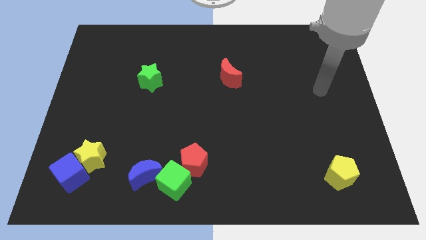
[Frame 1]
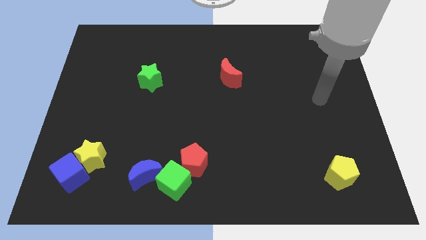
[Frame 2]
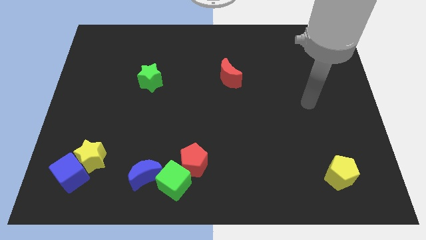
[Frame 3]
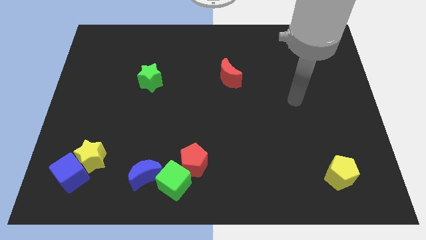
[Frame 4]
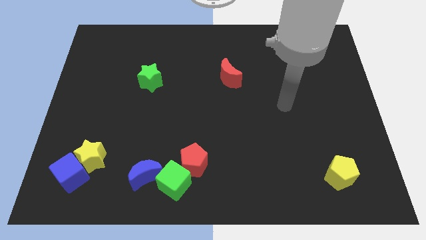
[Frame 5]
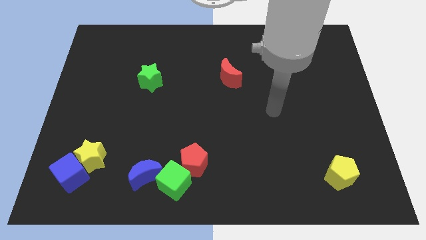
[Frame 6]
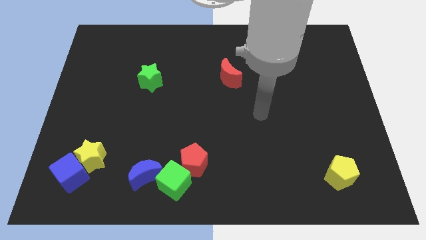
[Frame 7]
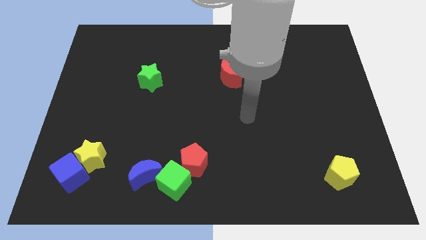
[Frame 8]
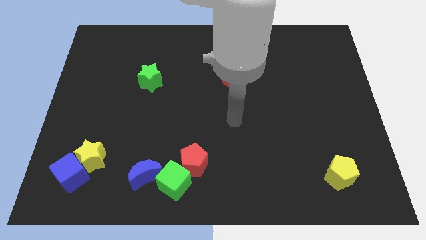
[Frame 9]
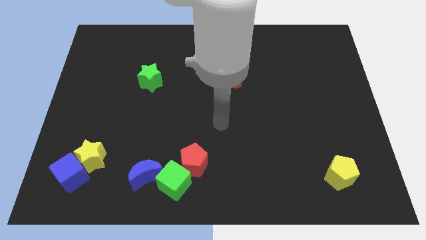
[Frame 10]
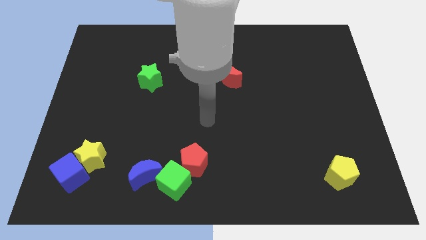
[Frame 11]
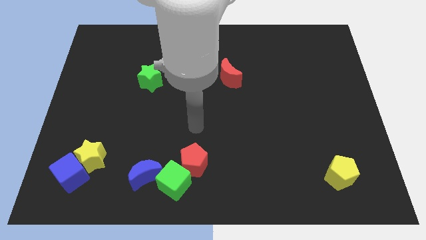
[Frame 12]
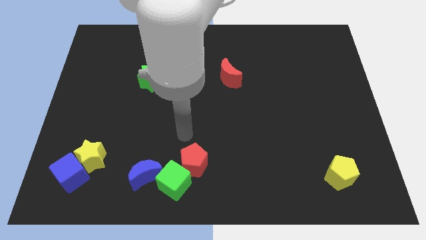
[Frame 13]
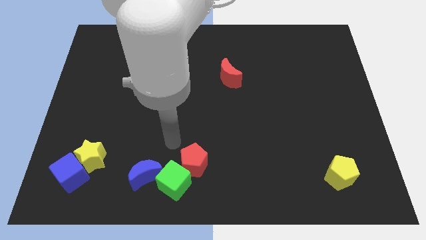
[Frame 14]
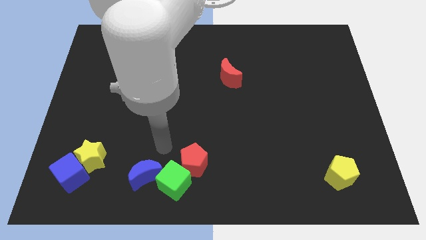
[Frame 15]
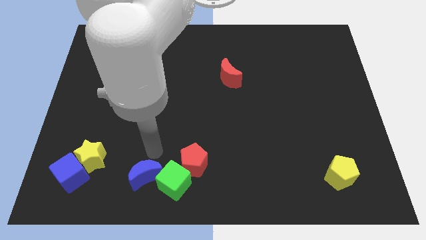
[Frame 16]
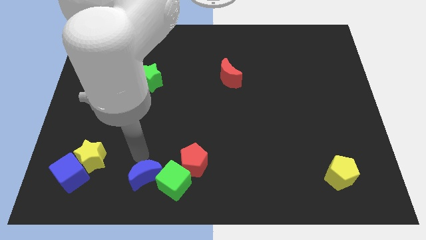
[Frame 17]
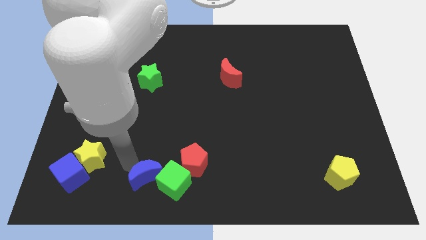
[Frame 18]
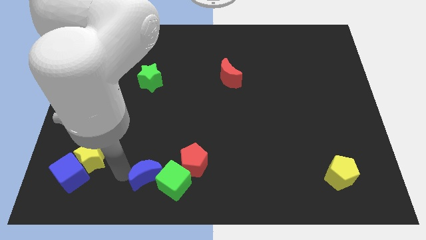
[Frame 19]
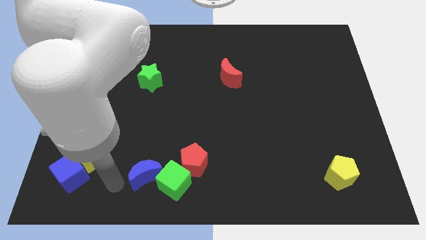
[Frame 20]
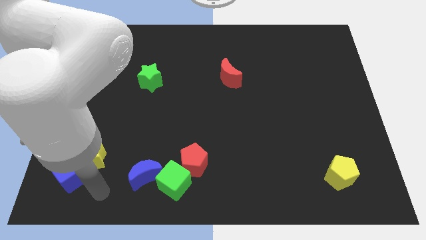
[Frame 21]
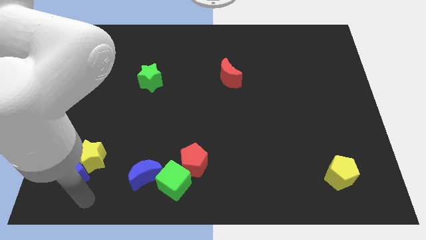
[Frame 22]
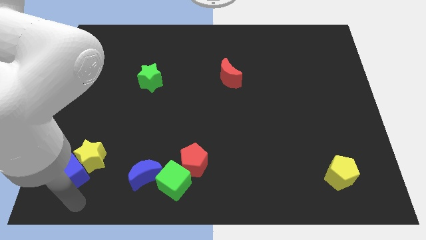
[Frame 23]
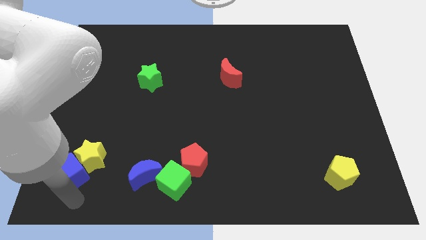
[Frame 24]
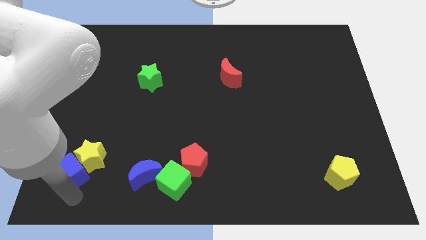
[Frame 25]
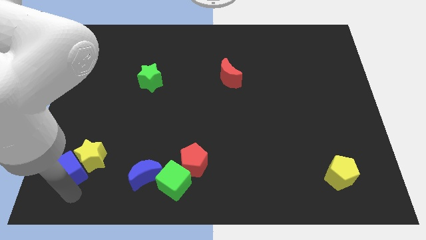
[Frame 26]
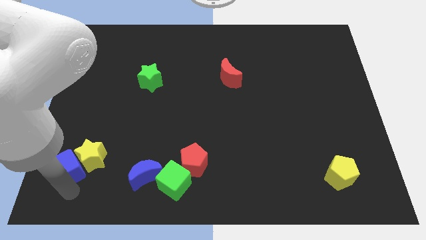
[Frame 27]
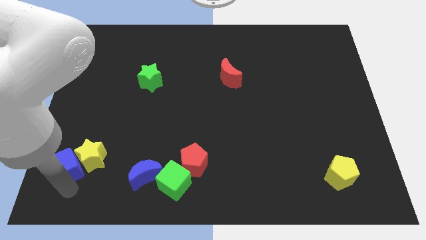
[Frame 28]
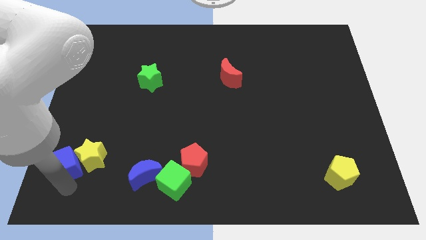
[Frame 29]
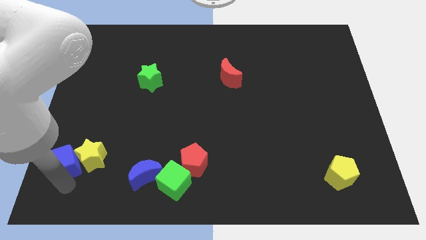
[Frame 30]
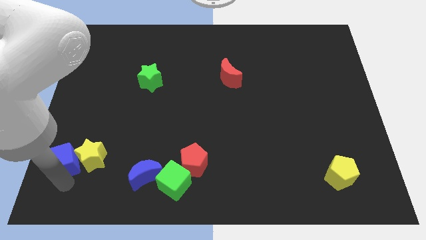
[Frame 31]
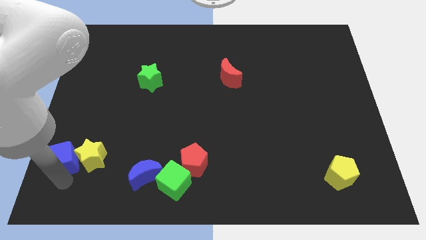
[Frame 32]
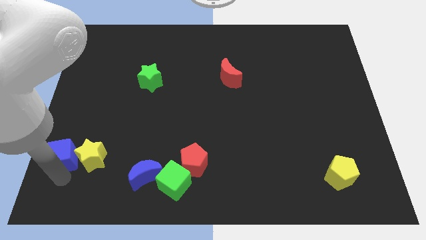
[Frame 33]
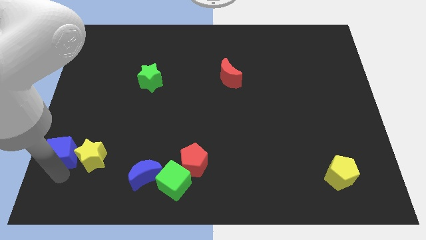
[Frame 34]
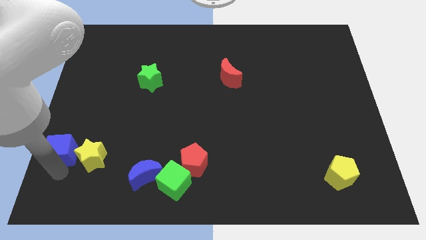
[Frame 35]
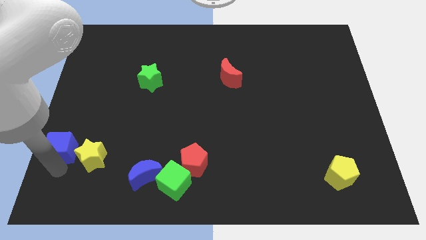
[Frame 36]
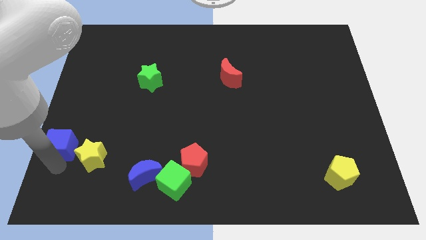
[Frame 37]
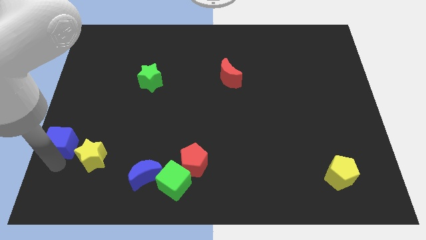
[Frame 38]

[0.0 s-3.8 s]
slide the blue cube somewhat up

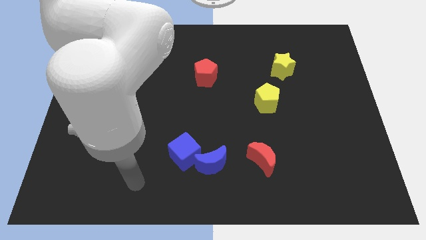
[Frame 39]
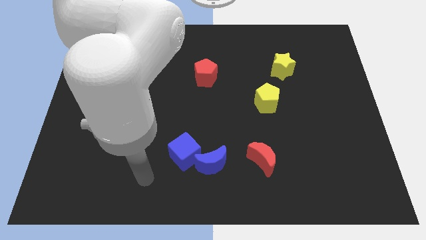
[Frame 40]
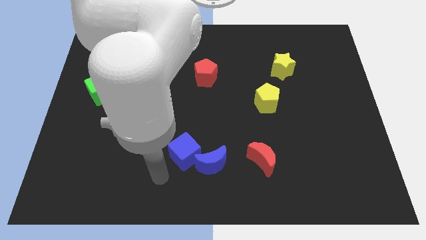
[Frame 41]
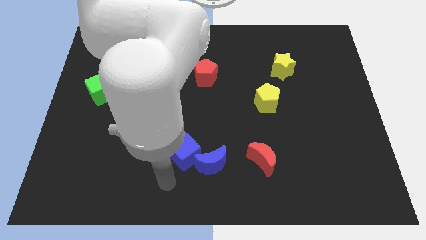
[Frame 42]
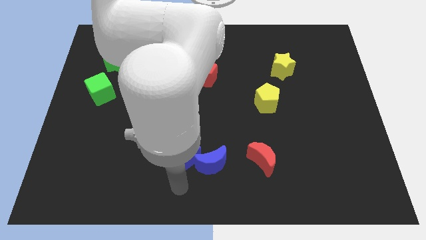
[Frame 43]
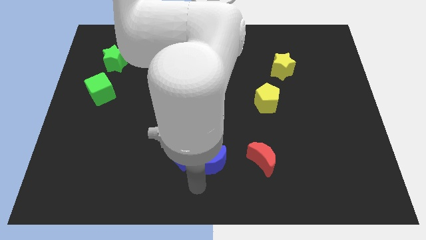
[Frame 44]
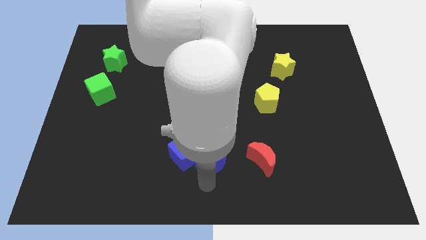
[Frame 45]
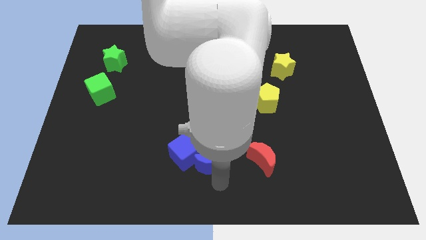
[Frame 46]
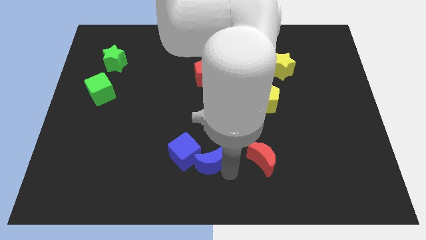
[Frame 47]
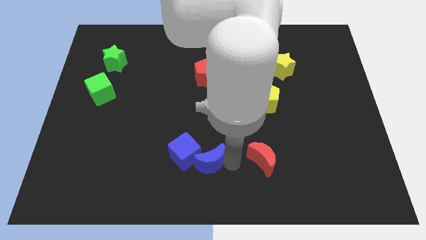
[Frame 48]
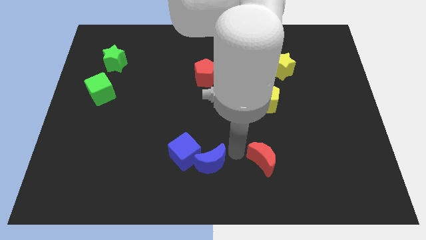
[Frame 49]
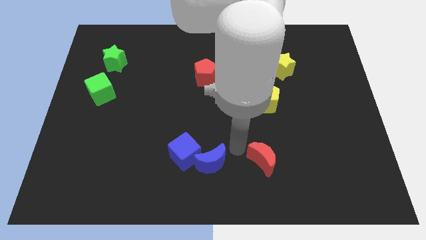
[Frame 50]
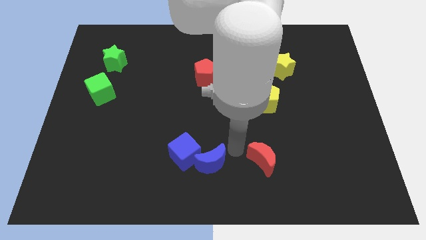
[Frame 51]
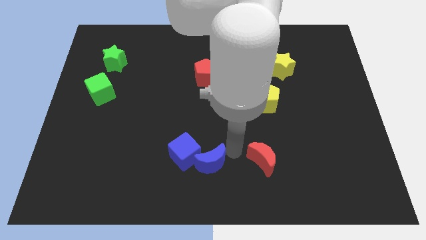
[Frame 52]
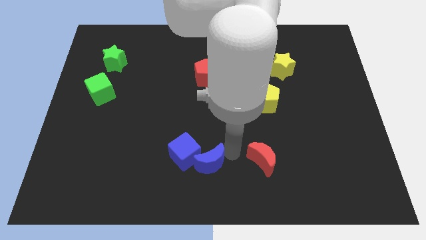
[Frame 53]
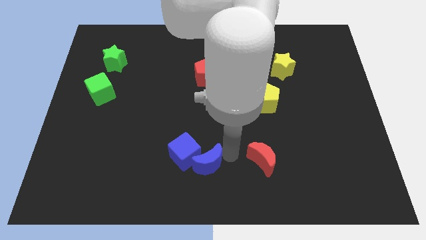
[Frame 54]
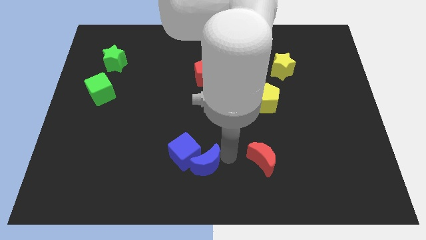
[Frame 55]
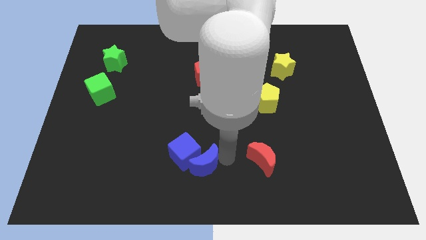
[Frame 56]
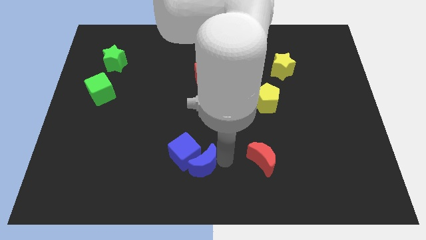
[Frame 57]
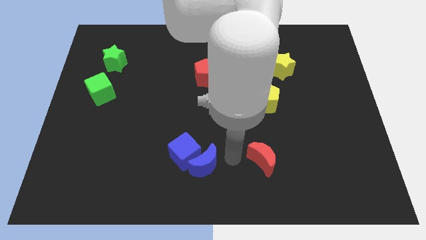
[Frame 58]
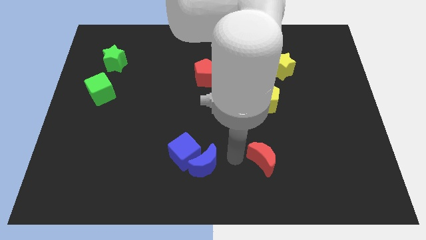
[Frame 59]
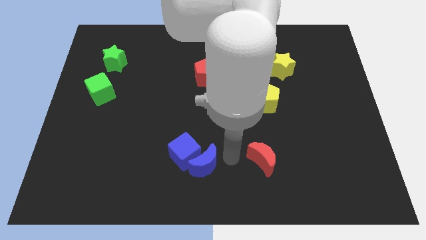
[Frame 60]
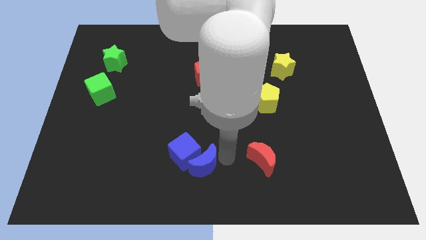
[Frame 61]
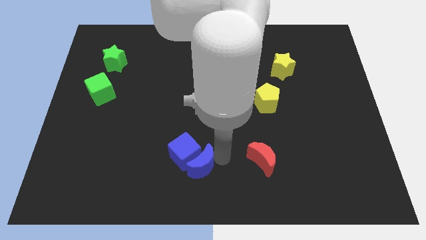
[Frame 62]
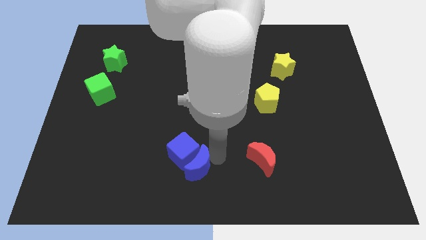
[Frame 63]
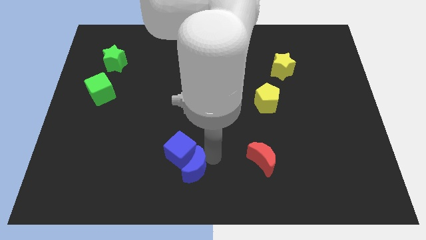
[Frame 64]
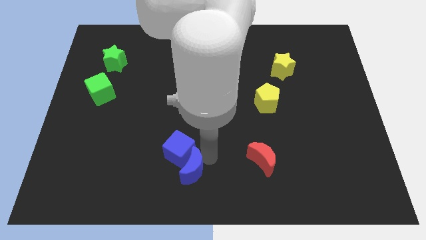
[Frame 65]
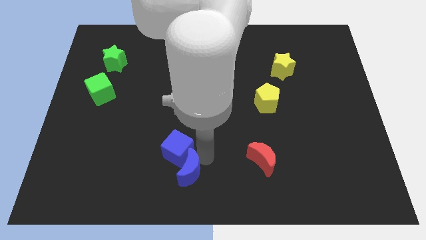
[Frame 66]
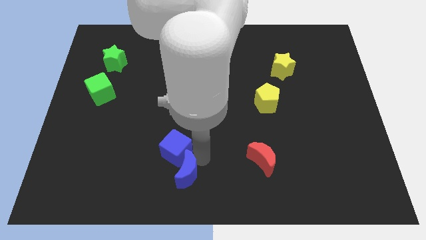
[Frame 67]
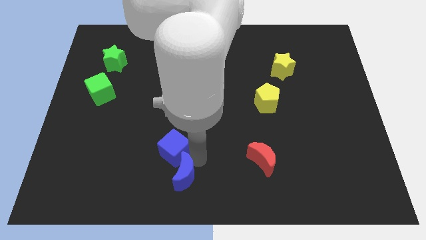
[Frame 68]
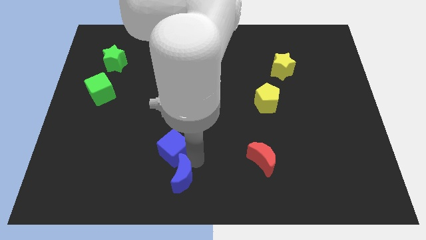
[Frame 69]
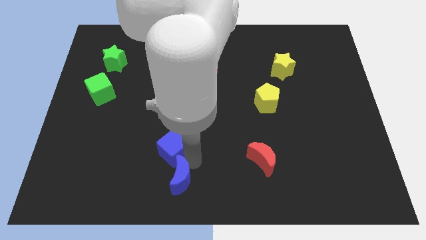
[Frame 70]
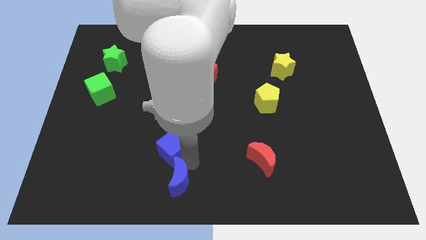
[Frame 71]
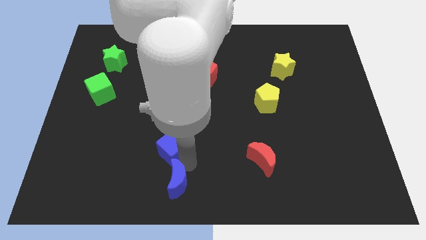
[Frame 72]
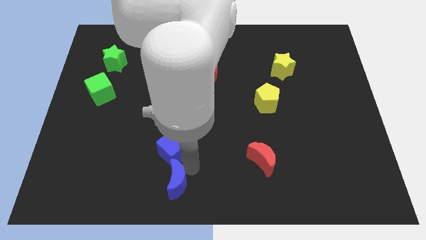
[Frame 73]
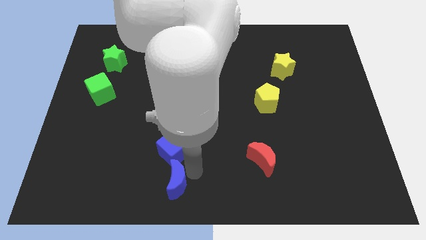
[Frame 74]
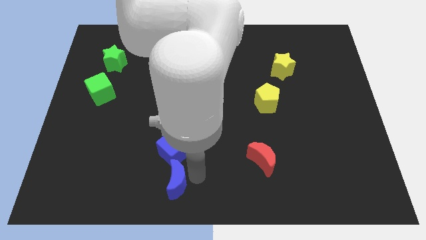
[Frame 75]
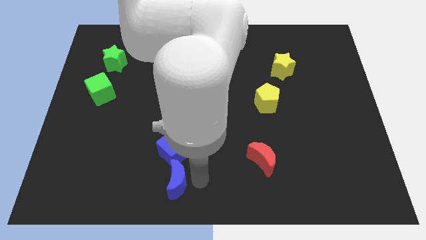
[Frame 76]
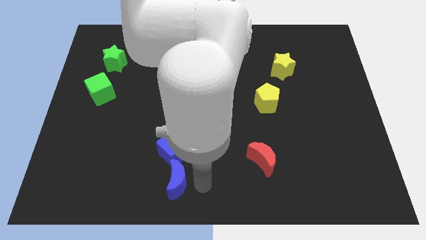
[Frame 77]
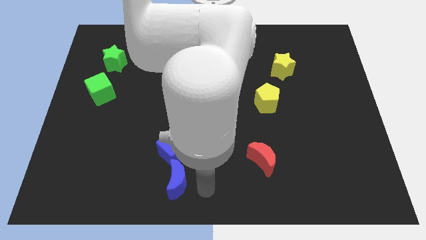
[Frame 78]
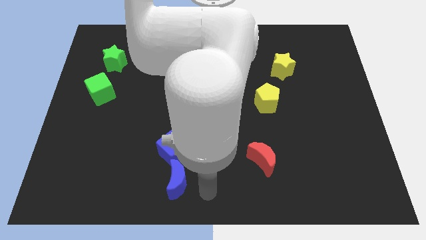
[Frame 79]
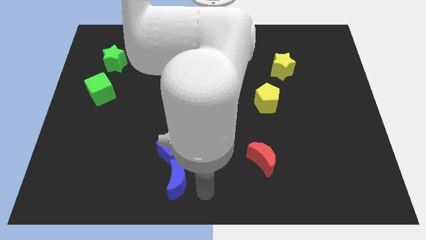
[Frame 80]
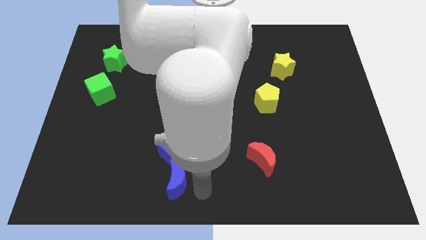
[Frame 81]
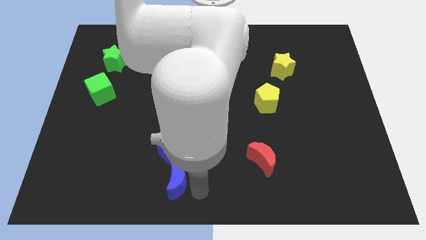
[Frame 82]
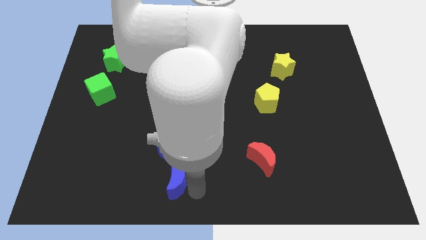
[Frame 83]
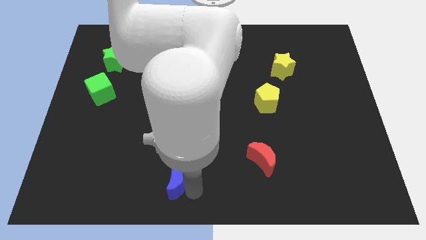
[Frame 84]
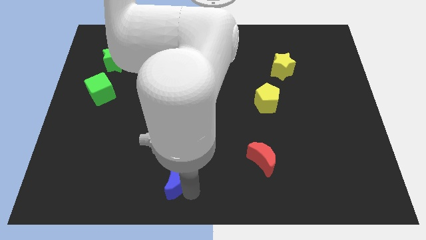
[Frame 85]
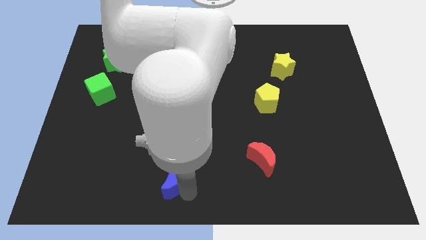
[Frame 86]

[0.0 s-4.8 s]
slightly move the blue moon left
